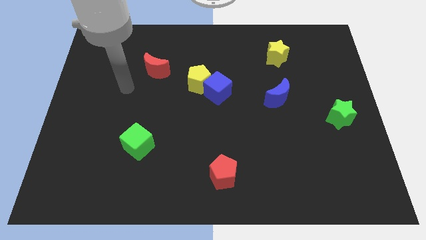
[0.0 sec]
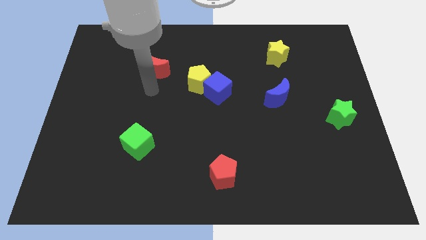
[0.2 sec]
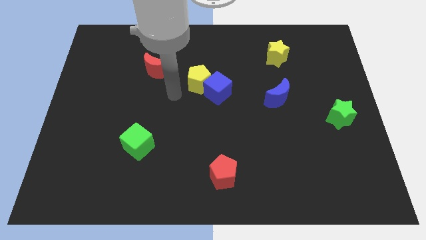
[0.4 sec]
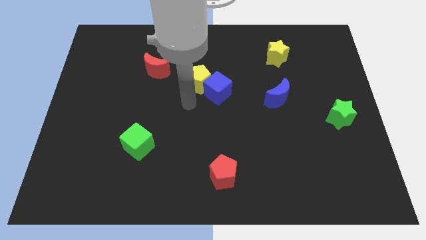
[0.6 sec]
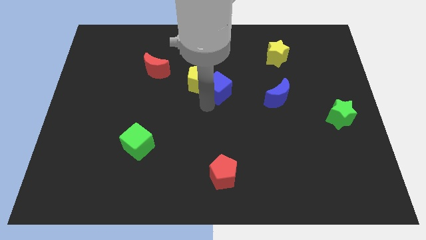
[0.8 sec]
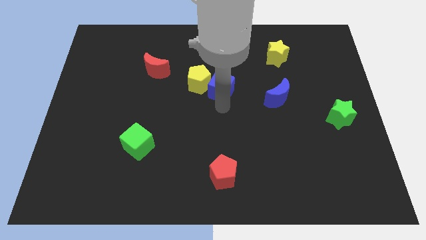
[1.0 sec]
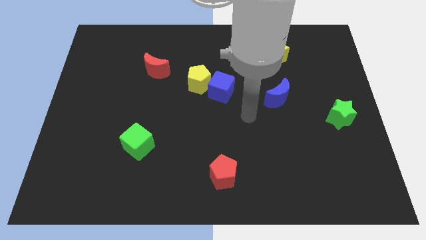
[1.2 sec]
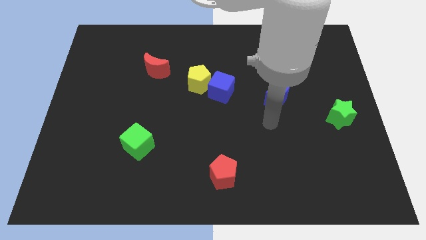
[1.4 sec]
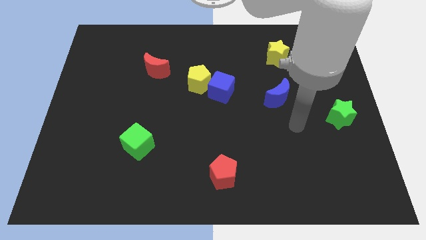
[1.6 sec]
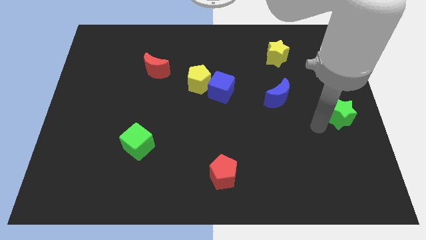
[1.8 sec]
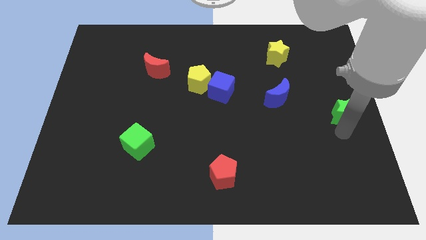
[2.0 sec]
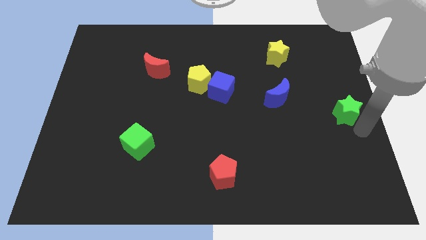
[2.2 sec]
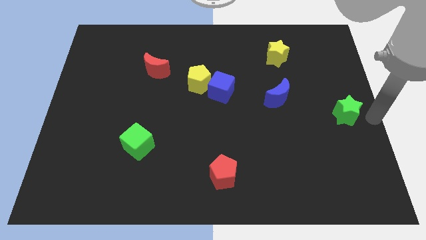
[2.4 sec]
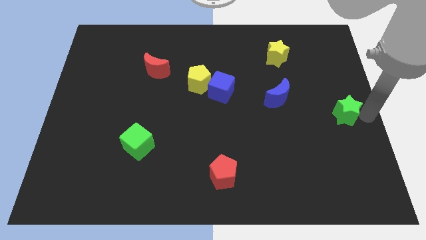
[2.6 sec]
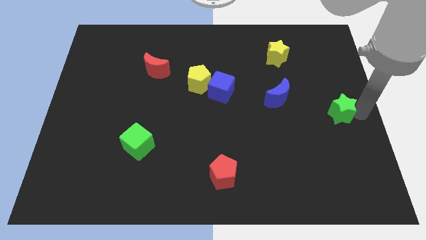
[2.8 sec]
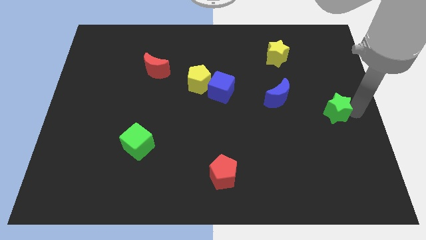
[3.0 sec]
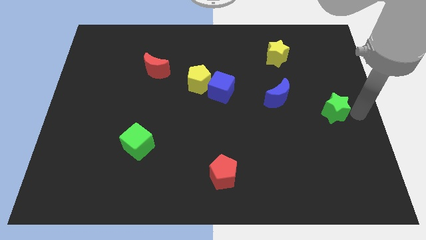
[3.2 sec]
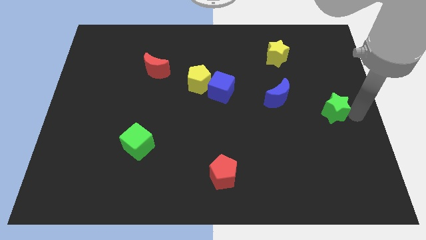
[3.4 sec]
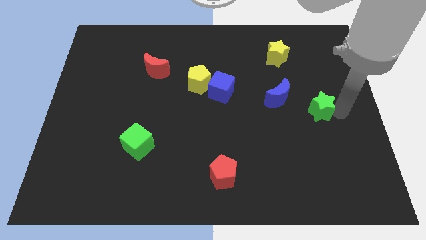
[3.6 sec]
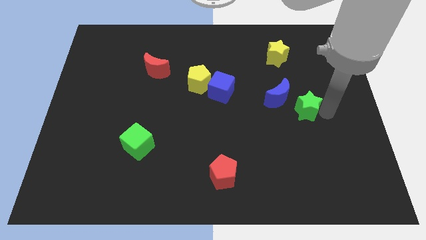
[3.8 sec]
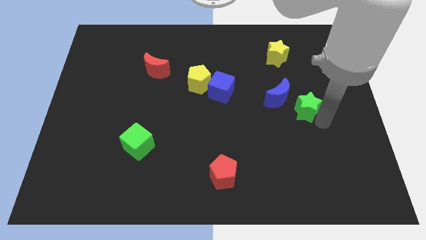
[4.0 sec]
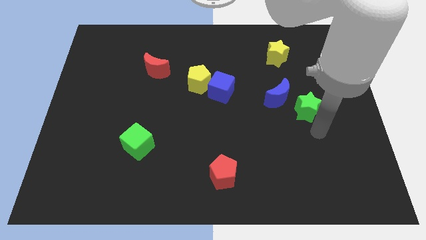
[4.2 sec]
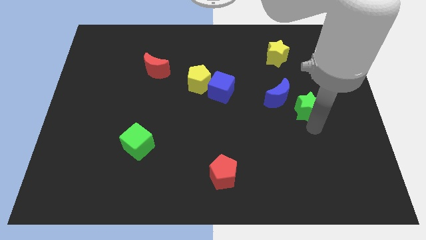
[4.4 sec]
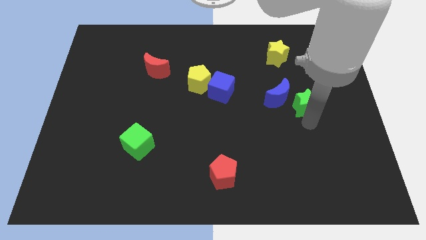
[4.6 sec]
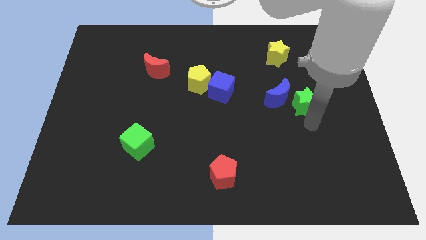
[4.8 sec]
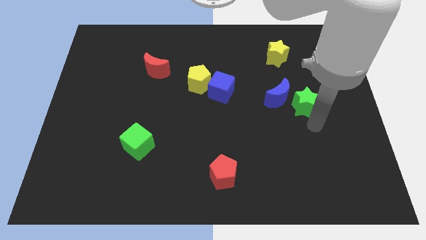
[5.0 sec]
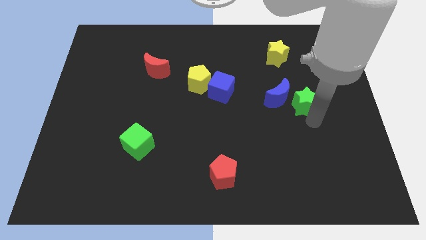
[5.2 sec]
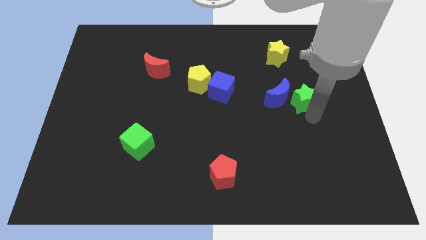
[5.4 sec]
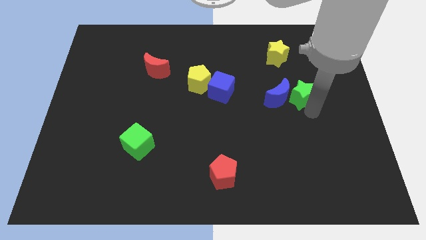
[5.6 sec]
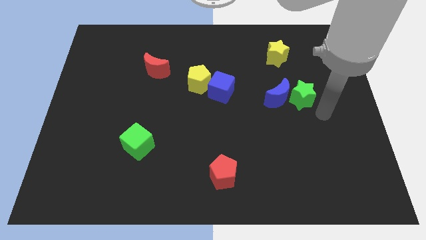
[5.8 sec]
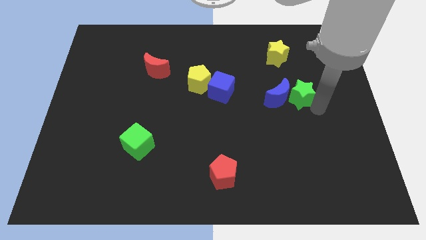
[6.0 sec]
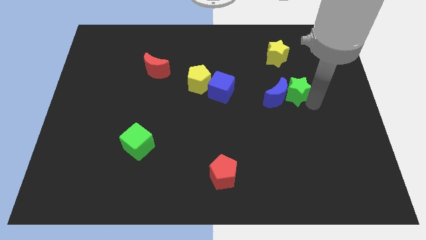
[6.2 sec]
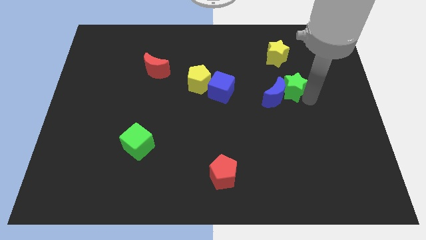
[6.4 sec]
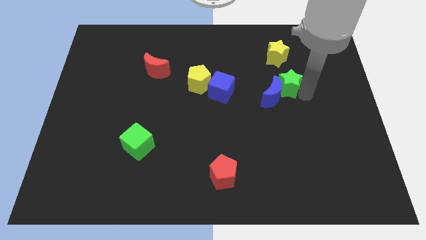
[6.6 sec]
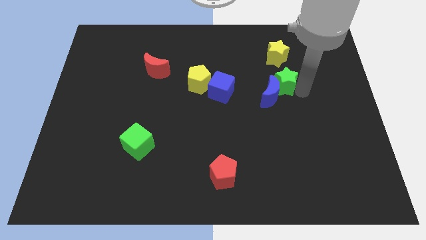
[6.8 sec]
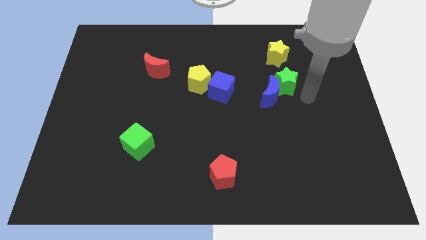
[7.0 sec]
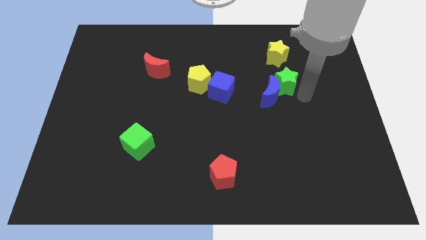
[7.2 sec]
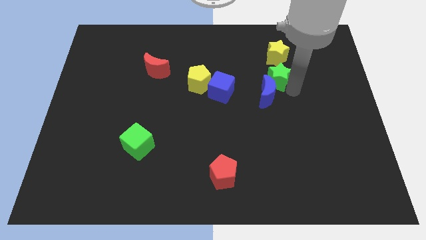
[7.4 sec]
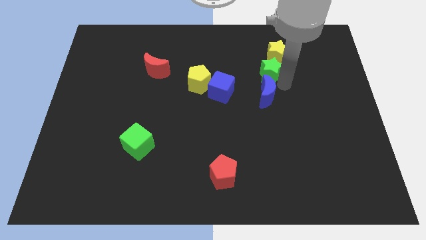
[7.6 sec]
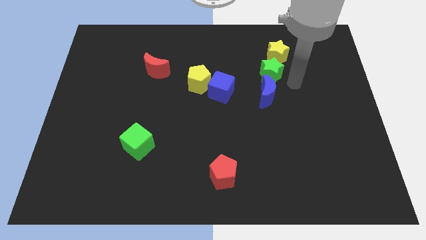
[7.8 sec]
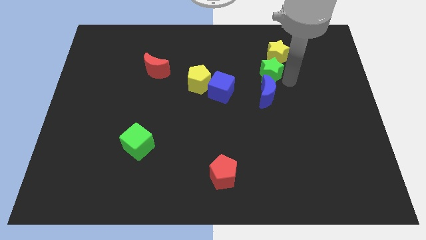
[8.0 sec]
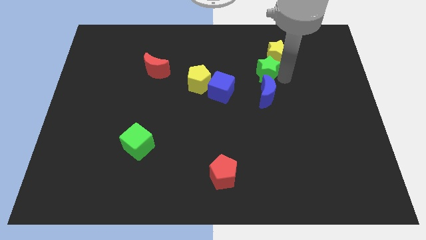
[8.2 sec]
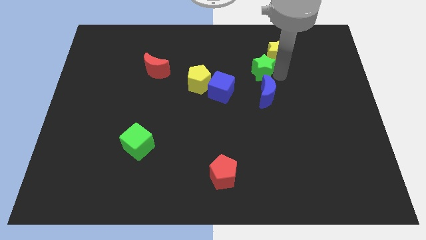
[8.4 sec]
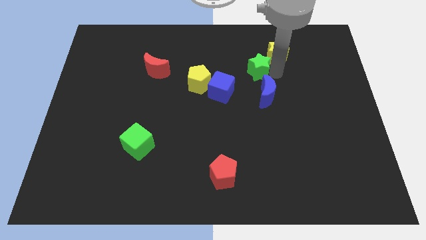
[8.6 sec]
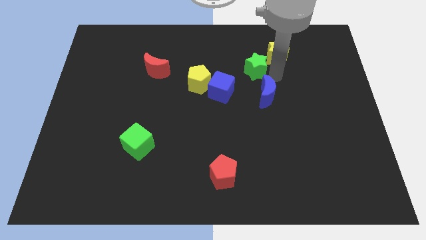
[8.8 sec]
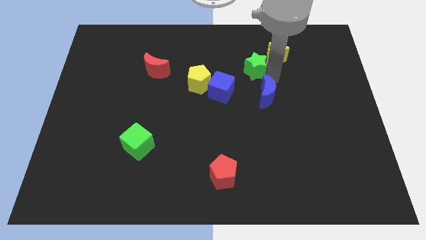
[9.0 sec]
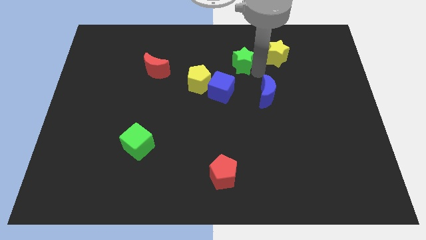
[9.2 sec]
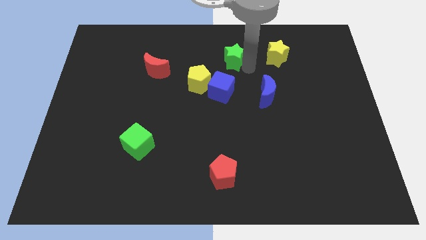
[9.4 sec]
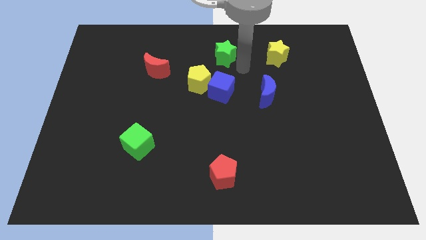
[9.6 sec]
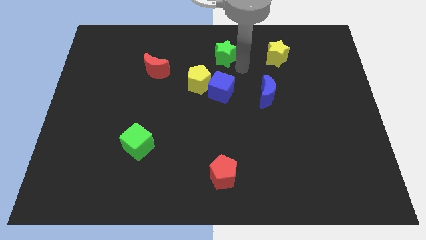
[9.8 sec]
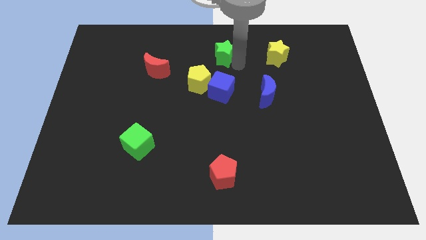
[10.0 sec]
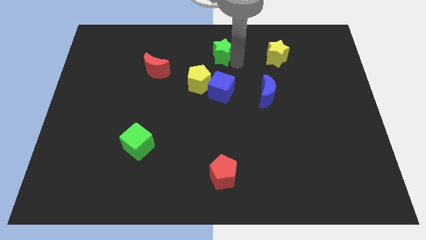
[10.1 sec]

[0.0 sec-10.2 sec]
push the green star to the top

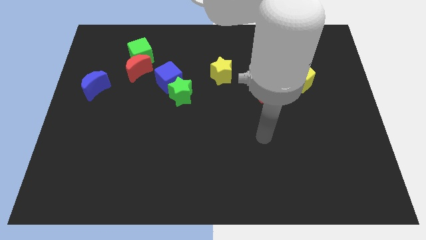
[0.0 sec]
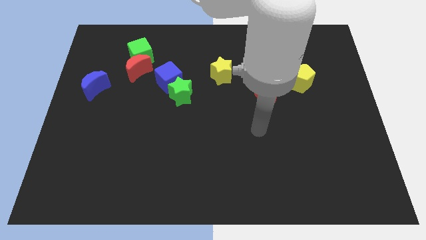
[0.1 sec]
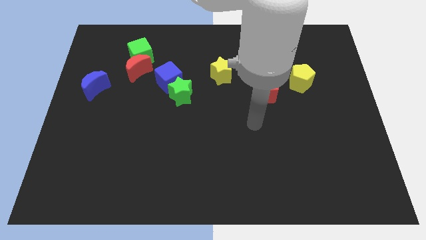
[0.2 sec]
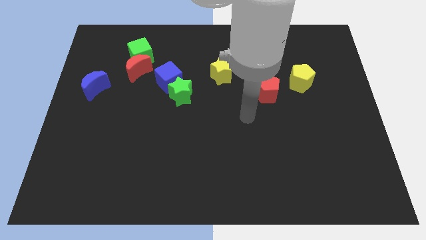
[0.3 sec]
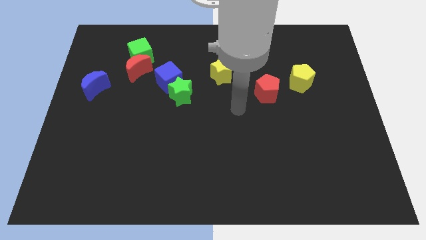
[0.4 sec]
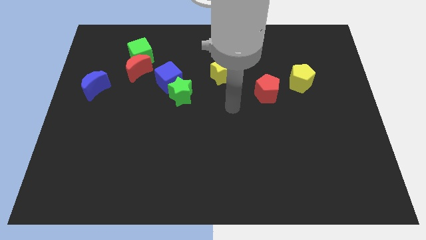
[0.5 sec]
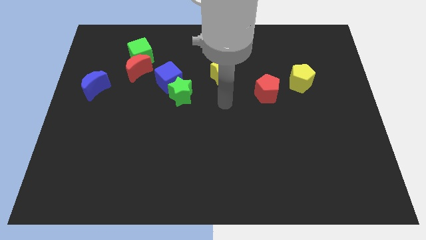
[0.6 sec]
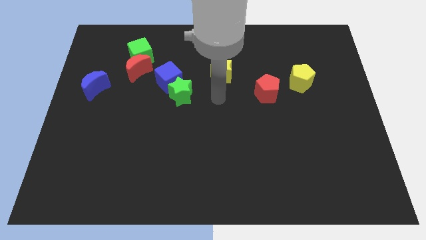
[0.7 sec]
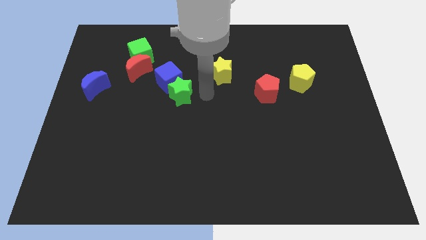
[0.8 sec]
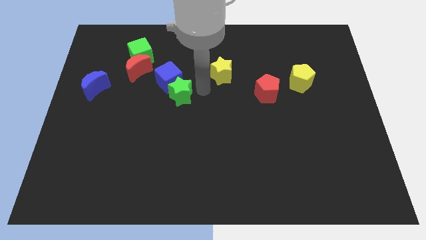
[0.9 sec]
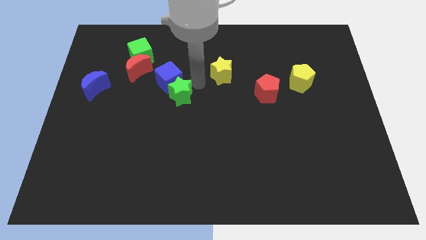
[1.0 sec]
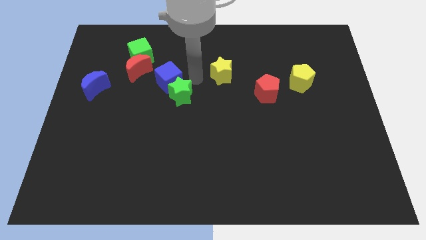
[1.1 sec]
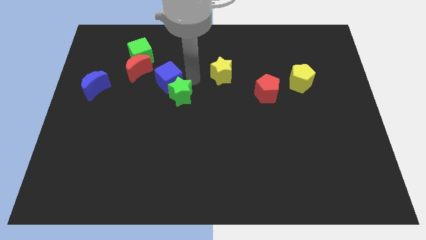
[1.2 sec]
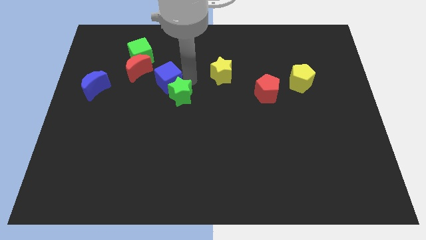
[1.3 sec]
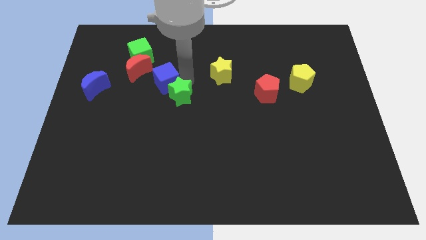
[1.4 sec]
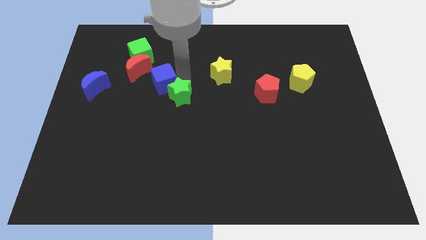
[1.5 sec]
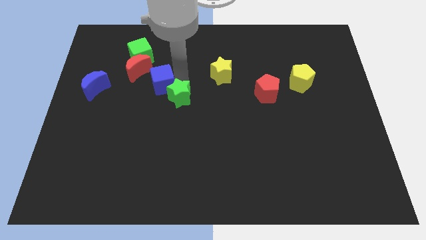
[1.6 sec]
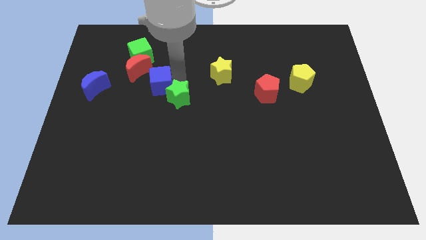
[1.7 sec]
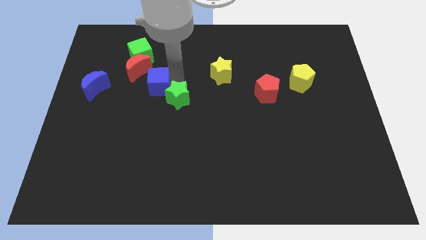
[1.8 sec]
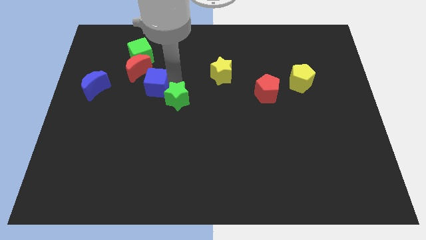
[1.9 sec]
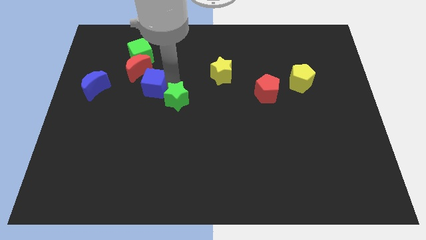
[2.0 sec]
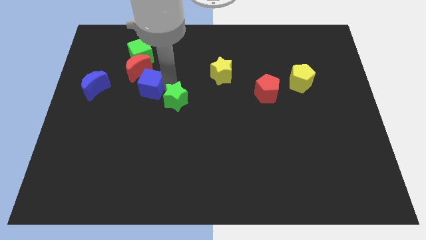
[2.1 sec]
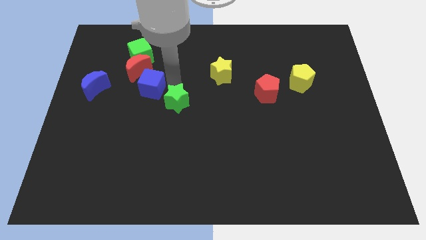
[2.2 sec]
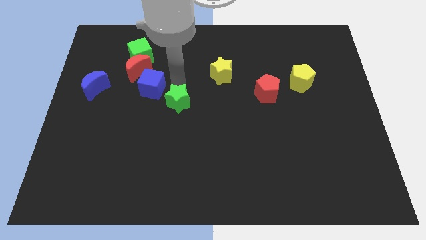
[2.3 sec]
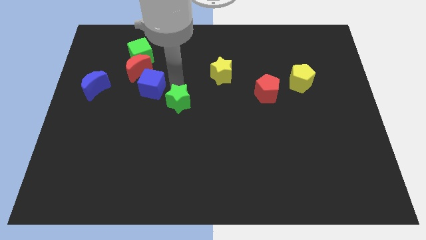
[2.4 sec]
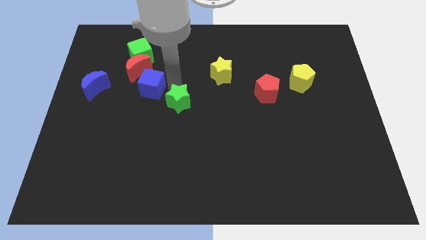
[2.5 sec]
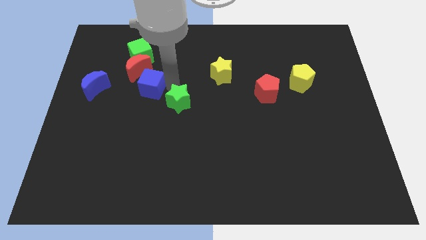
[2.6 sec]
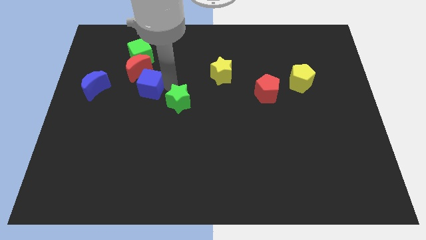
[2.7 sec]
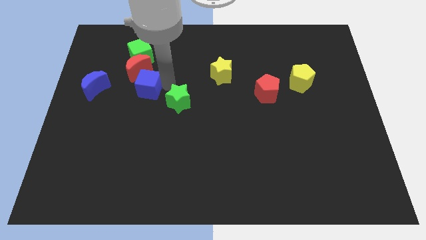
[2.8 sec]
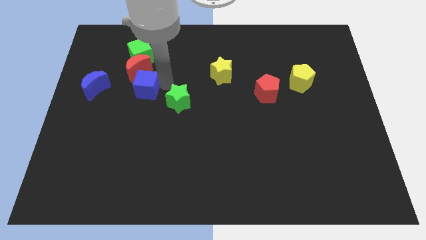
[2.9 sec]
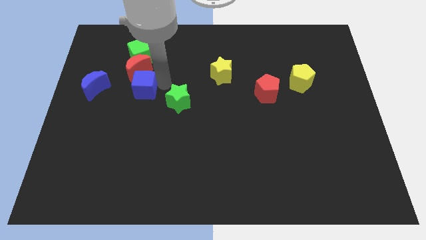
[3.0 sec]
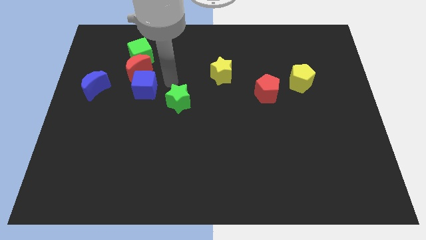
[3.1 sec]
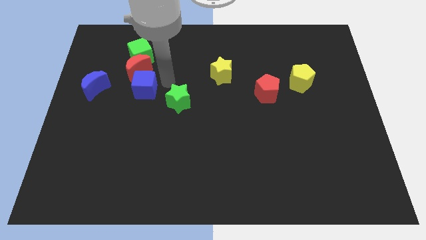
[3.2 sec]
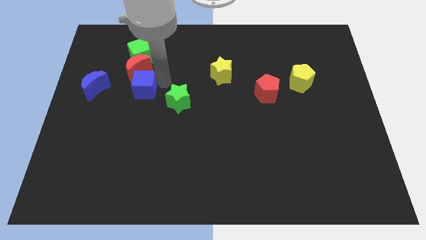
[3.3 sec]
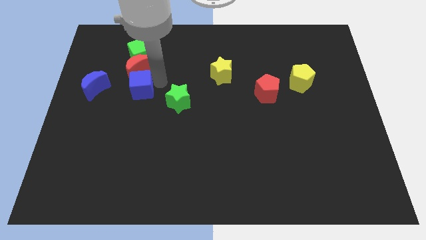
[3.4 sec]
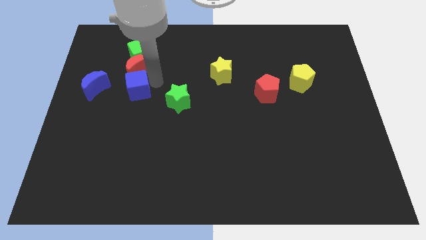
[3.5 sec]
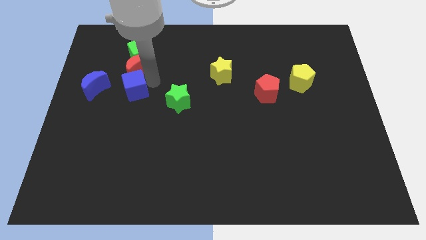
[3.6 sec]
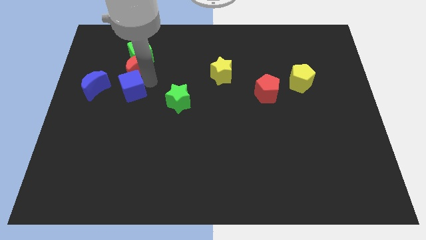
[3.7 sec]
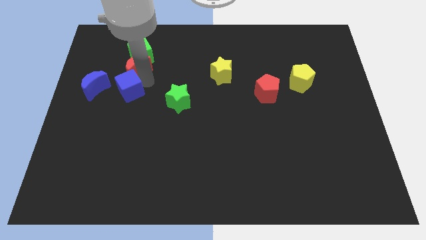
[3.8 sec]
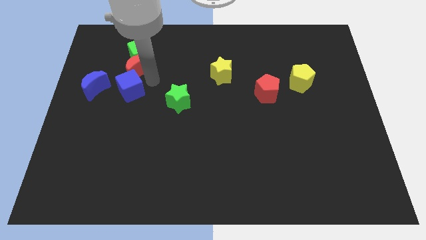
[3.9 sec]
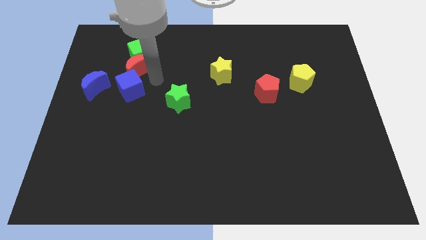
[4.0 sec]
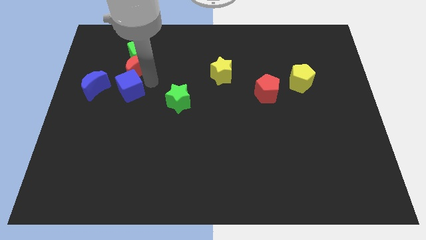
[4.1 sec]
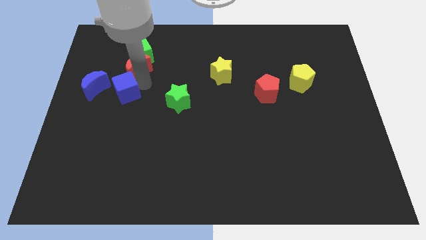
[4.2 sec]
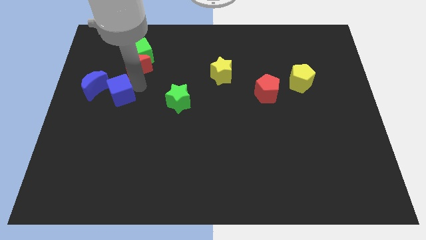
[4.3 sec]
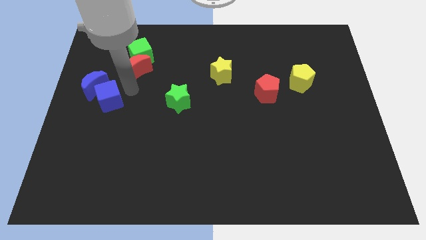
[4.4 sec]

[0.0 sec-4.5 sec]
push the blue cube to the center left
